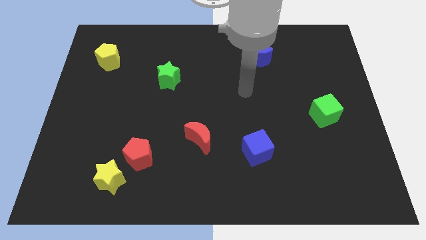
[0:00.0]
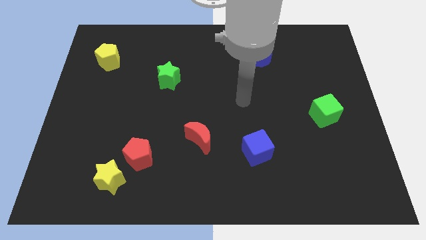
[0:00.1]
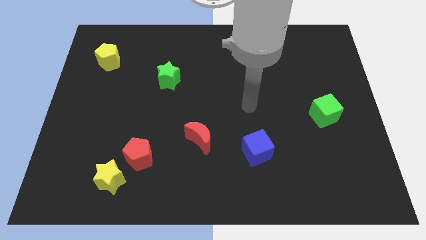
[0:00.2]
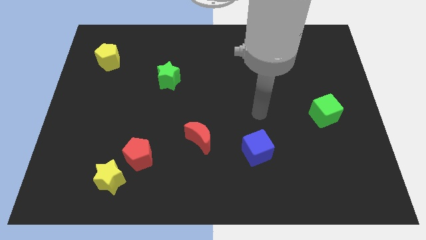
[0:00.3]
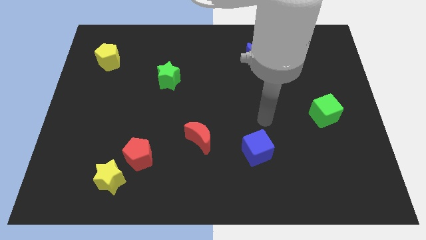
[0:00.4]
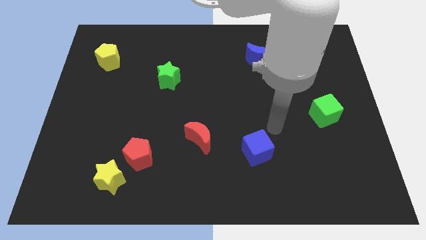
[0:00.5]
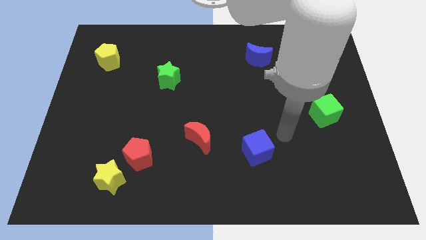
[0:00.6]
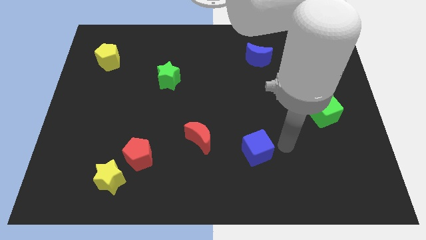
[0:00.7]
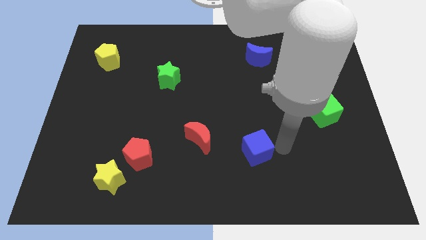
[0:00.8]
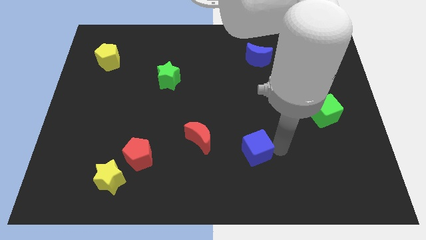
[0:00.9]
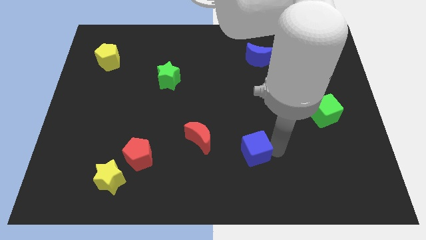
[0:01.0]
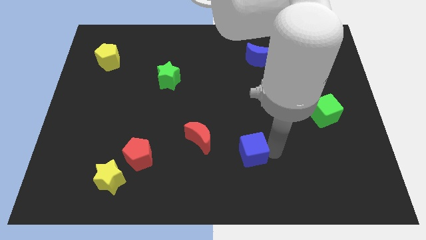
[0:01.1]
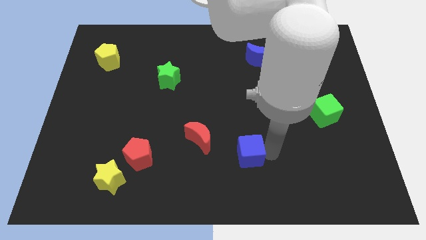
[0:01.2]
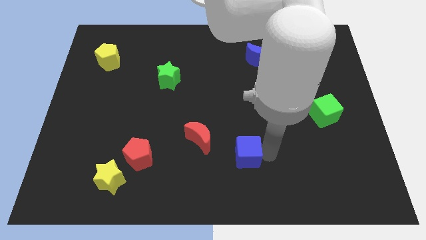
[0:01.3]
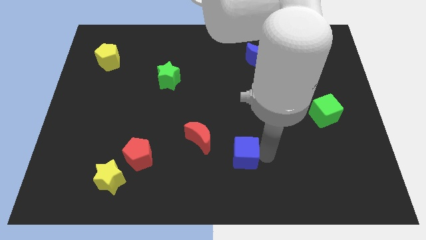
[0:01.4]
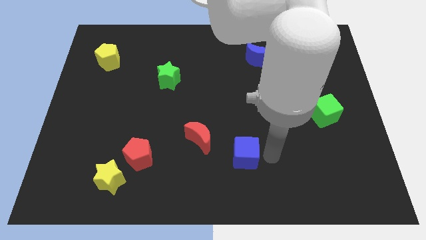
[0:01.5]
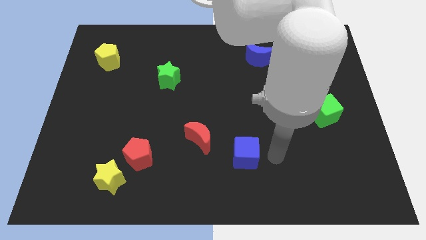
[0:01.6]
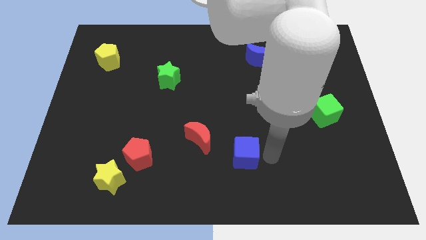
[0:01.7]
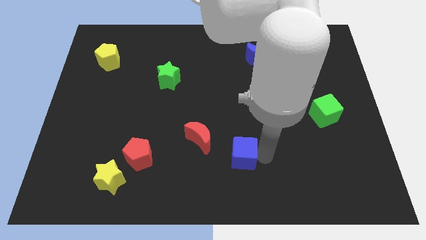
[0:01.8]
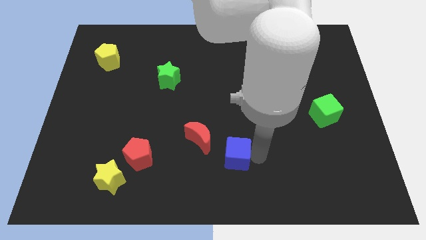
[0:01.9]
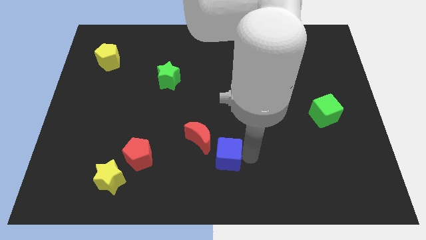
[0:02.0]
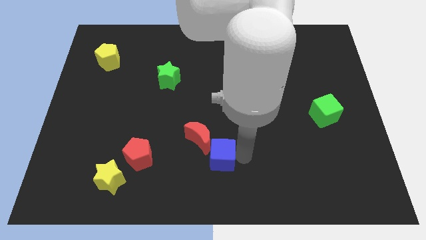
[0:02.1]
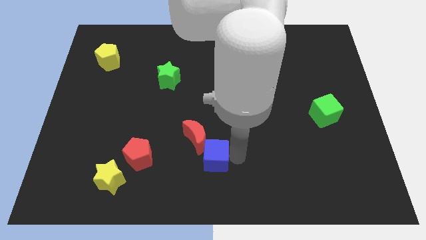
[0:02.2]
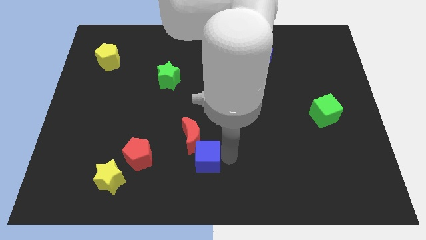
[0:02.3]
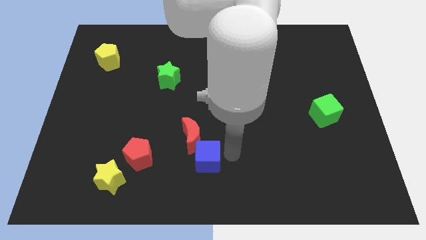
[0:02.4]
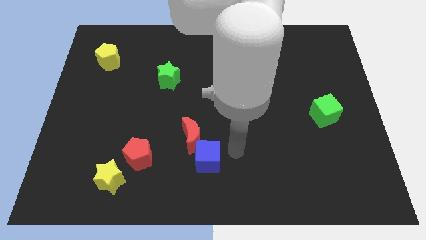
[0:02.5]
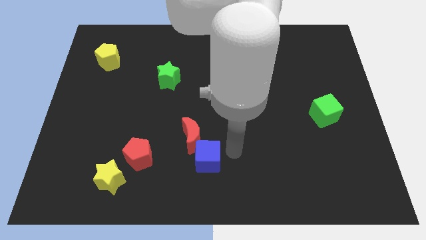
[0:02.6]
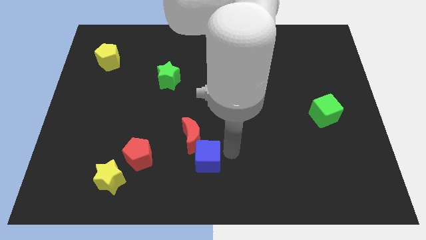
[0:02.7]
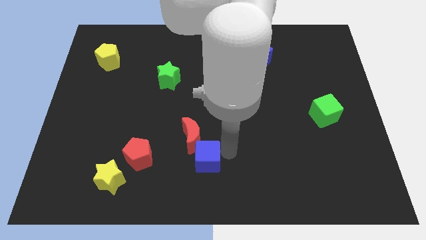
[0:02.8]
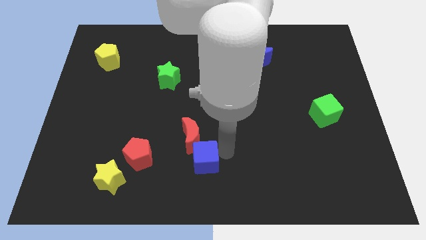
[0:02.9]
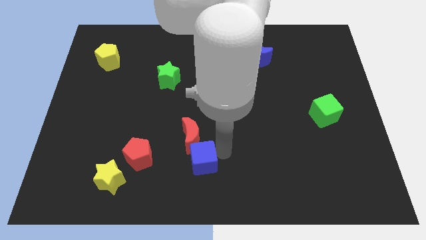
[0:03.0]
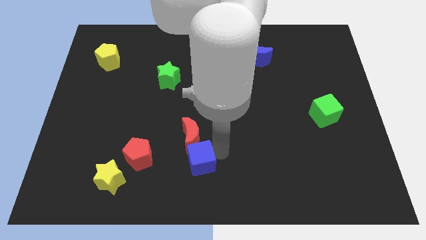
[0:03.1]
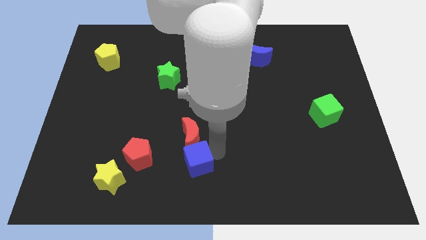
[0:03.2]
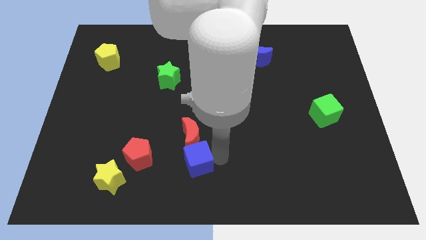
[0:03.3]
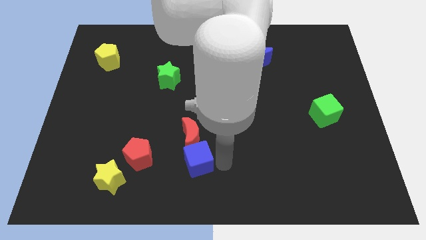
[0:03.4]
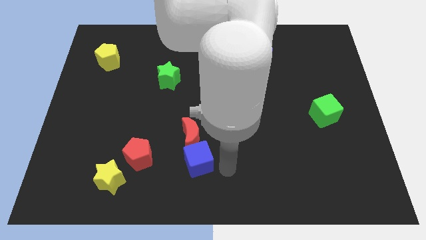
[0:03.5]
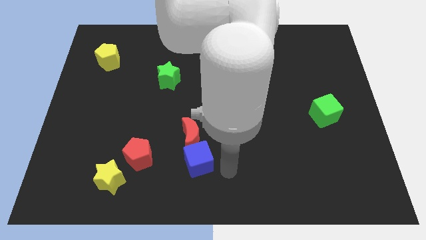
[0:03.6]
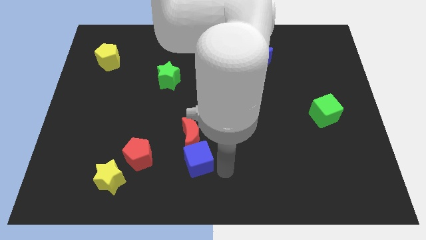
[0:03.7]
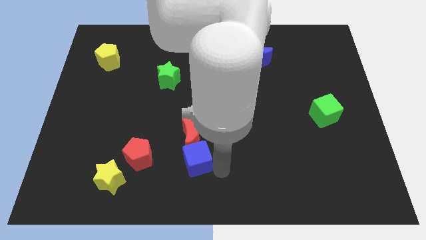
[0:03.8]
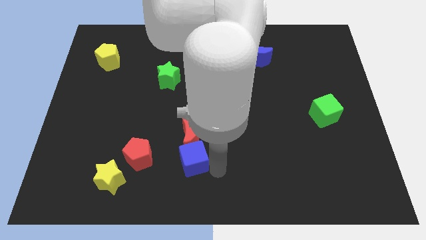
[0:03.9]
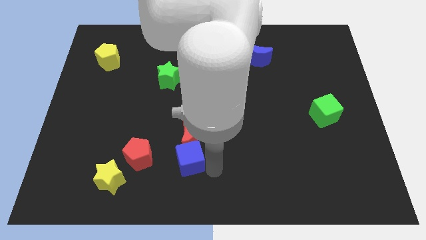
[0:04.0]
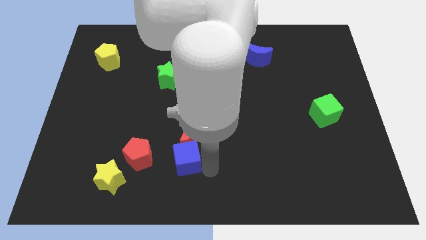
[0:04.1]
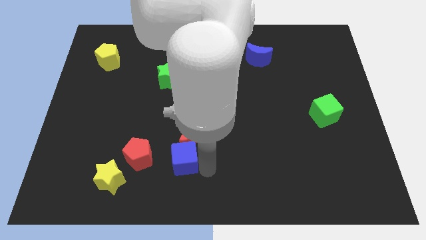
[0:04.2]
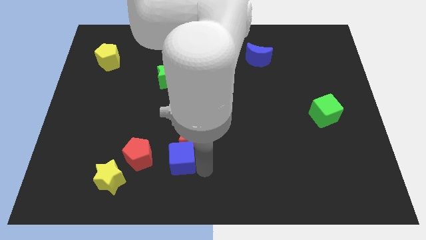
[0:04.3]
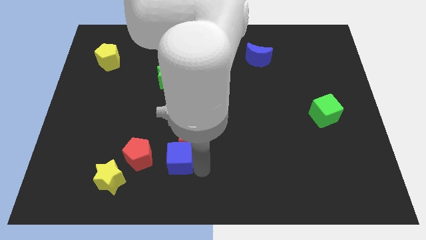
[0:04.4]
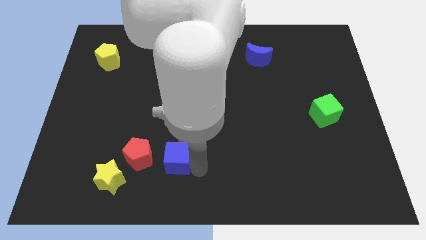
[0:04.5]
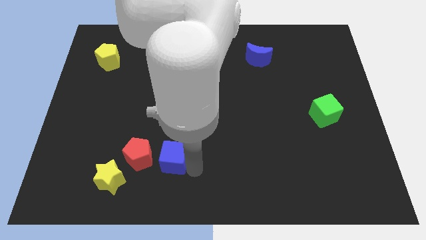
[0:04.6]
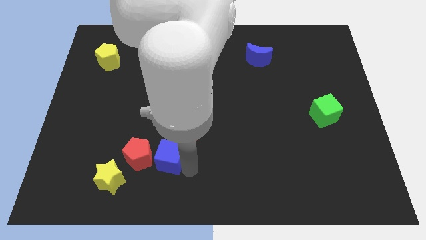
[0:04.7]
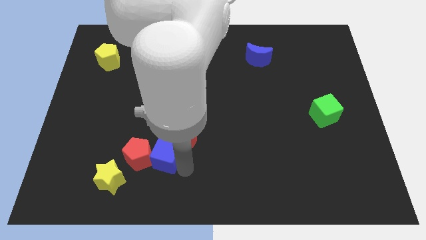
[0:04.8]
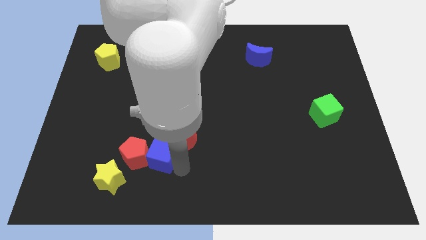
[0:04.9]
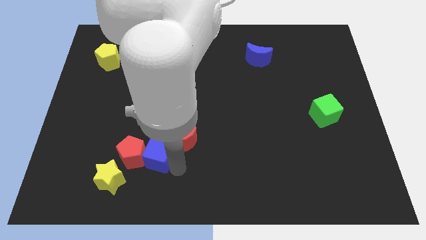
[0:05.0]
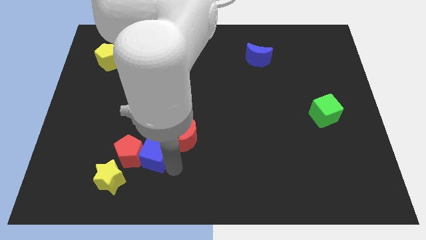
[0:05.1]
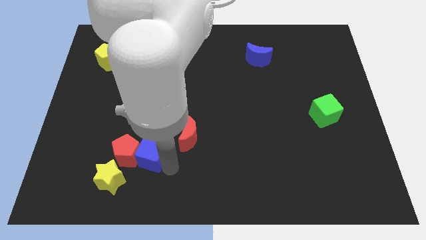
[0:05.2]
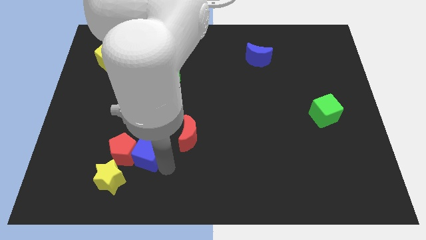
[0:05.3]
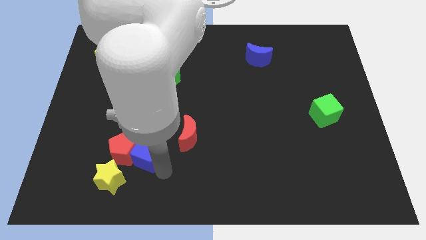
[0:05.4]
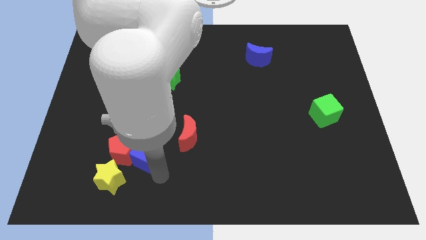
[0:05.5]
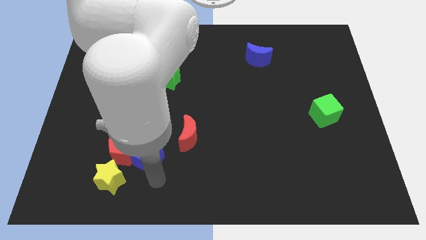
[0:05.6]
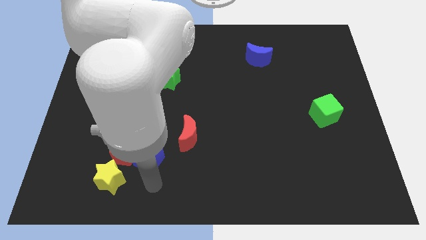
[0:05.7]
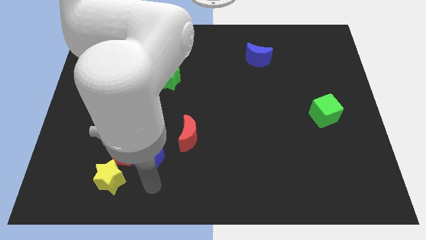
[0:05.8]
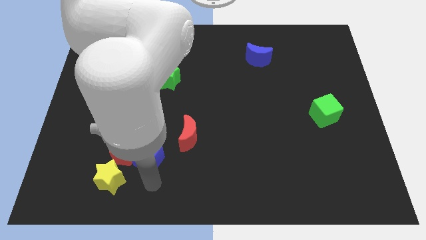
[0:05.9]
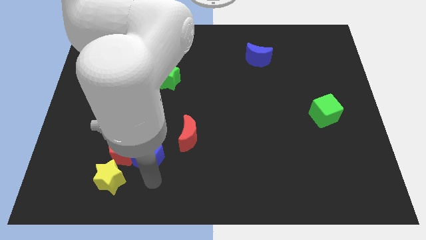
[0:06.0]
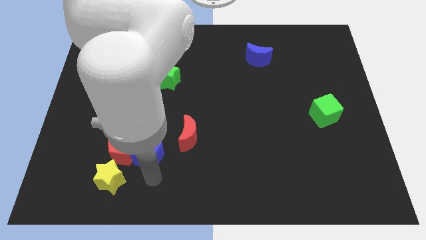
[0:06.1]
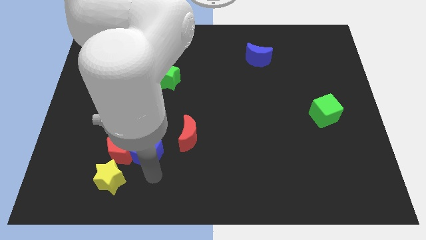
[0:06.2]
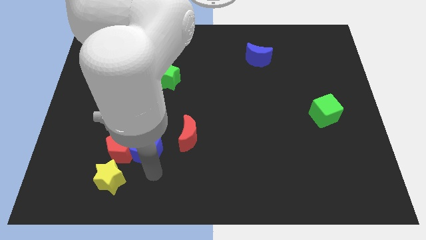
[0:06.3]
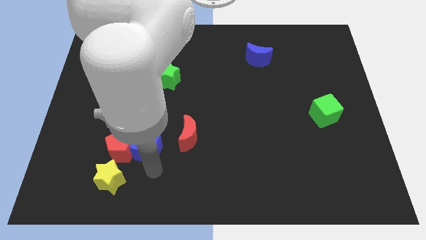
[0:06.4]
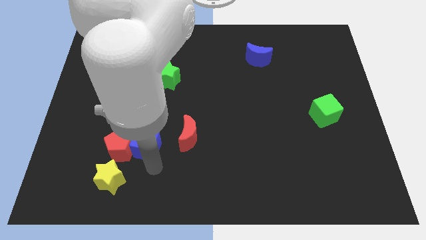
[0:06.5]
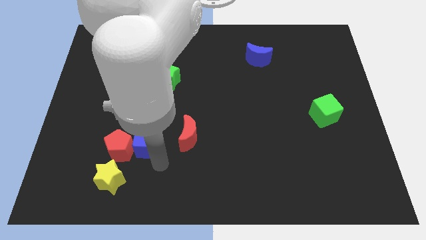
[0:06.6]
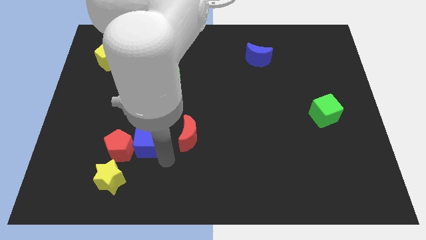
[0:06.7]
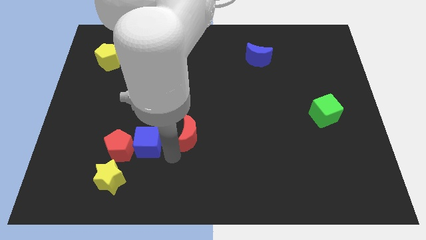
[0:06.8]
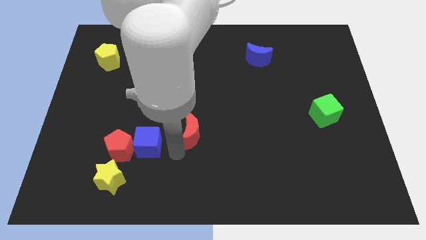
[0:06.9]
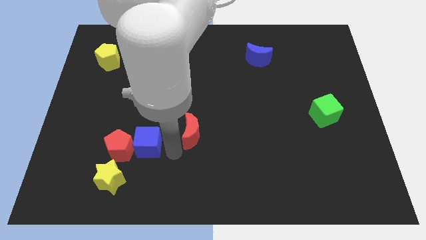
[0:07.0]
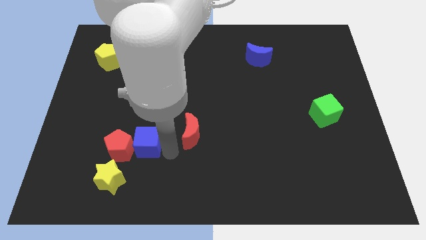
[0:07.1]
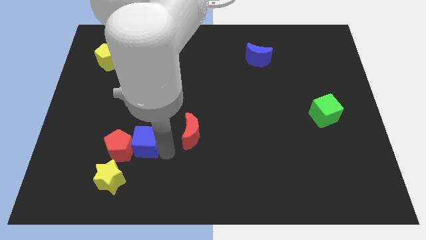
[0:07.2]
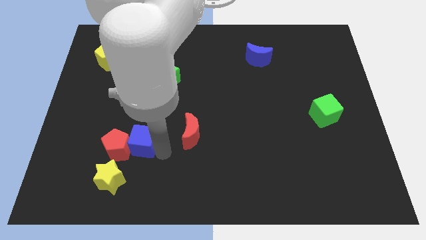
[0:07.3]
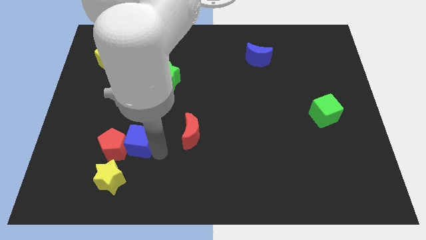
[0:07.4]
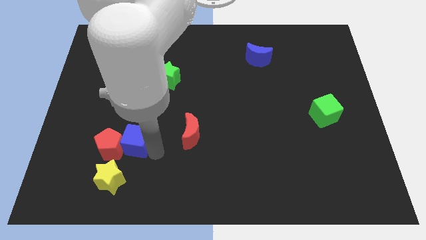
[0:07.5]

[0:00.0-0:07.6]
push the blue cube to the top side of the yellow star
